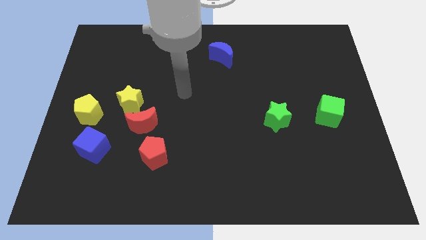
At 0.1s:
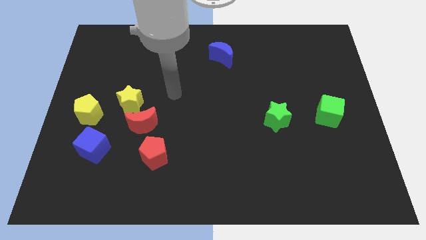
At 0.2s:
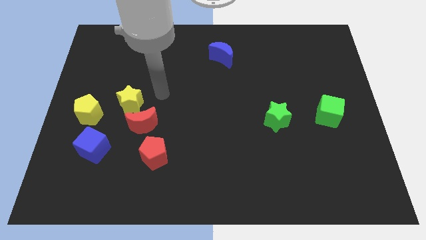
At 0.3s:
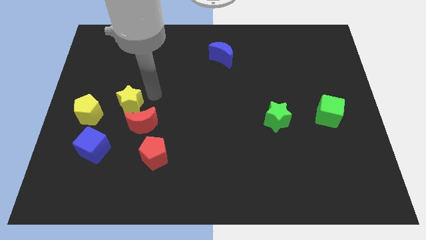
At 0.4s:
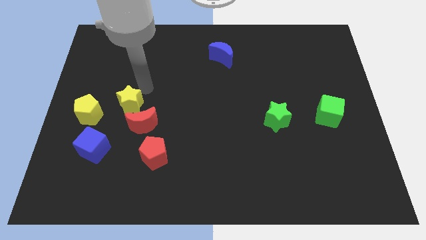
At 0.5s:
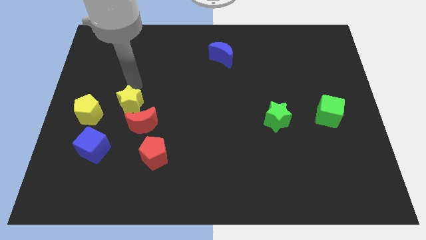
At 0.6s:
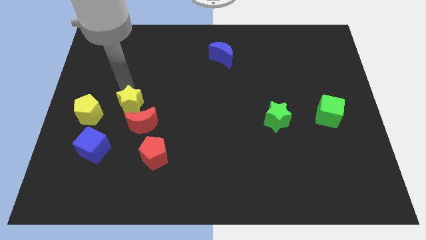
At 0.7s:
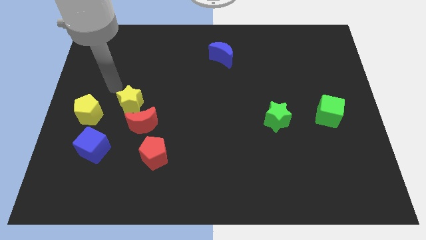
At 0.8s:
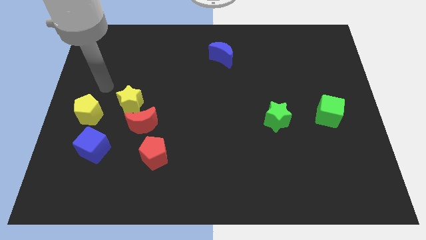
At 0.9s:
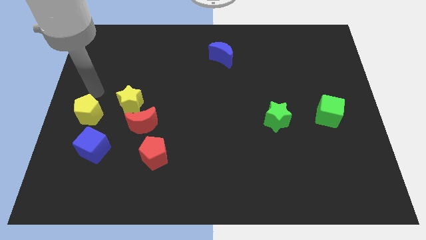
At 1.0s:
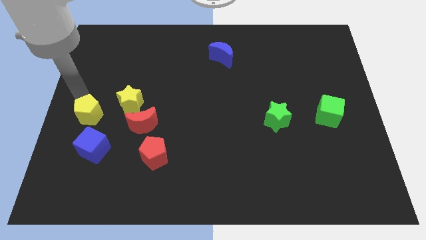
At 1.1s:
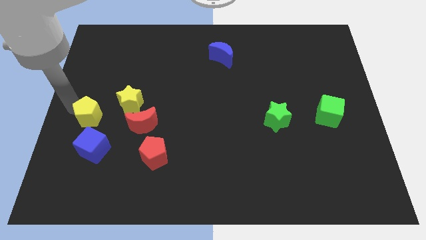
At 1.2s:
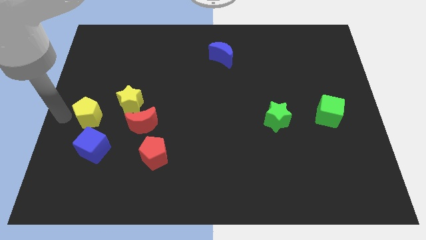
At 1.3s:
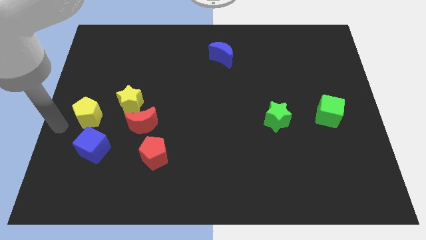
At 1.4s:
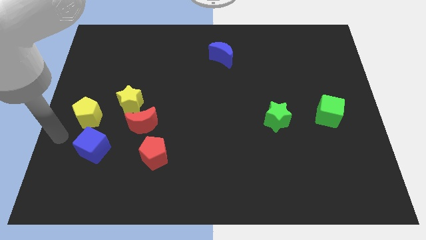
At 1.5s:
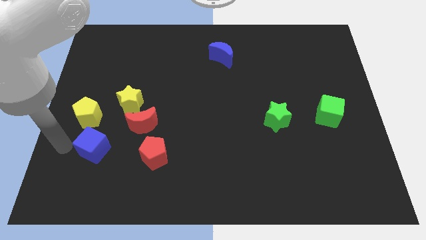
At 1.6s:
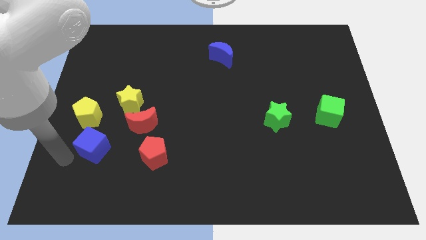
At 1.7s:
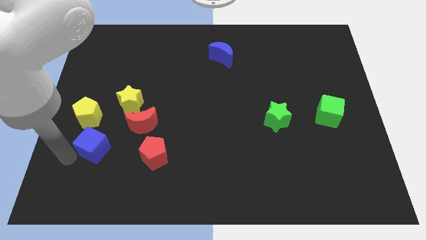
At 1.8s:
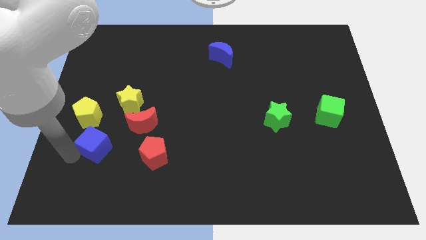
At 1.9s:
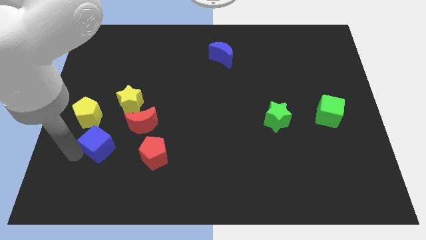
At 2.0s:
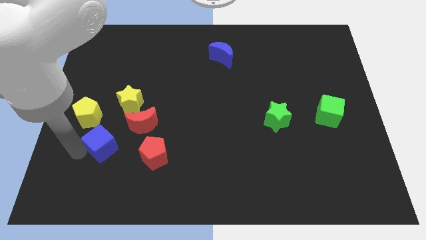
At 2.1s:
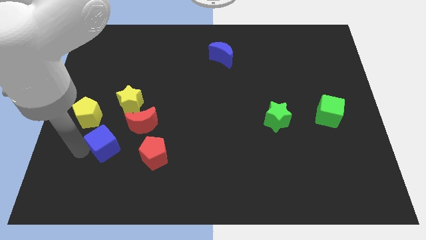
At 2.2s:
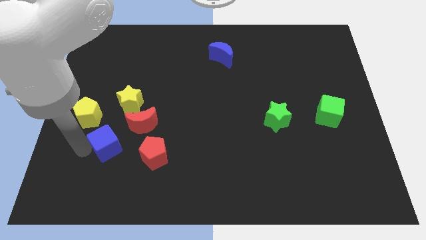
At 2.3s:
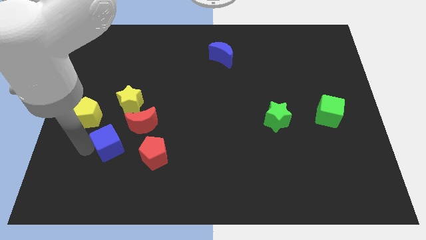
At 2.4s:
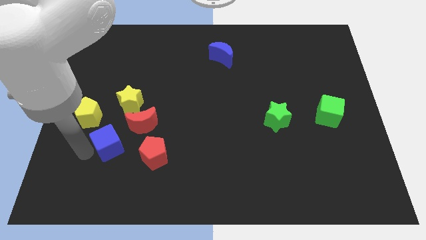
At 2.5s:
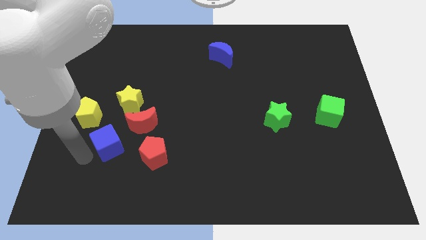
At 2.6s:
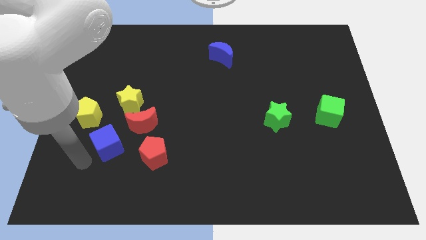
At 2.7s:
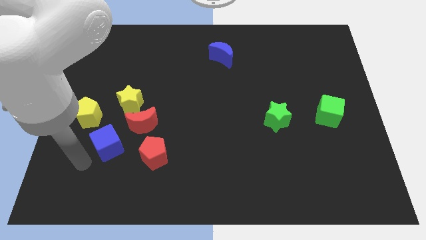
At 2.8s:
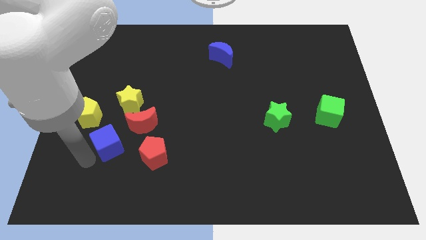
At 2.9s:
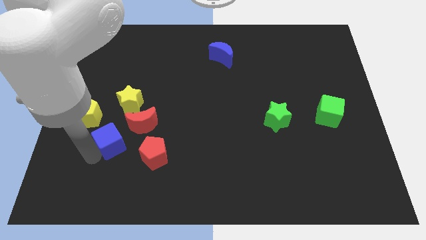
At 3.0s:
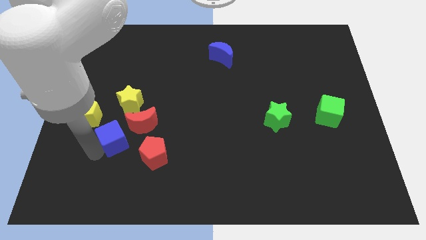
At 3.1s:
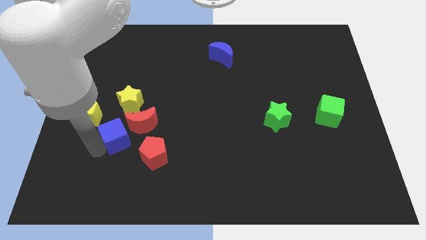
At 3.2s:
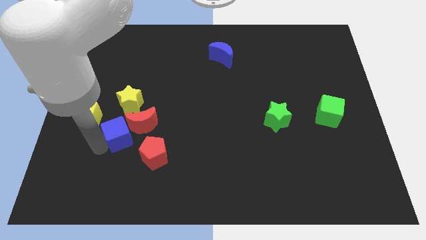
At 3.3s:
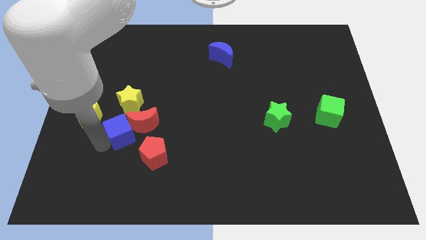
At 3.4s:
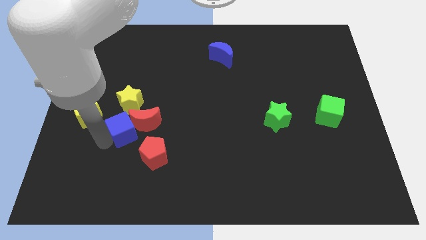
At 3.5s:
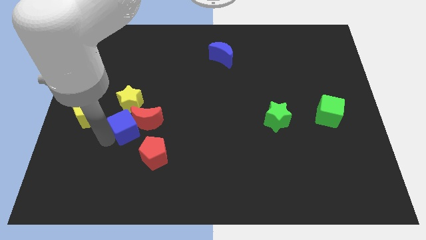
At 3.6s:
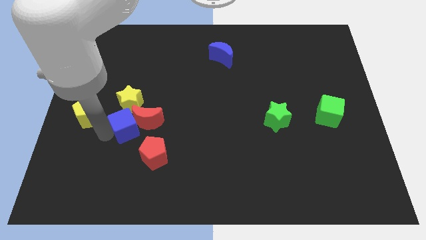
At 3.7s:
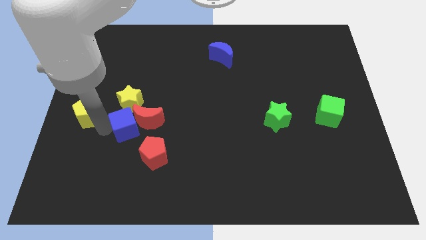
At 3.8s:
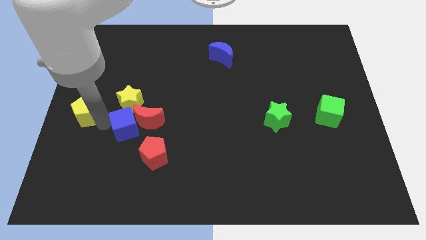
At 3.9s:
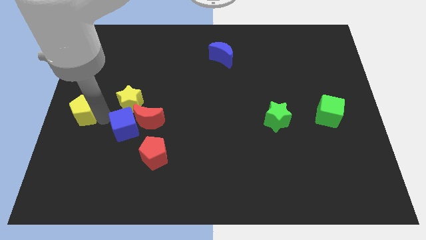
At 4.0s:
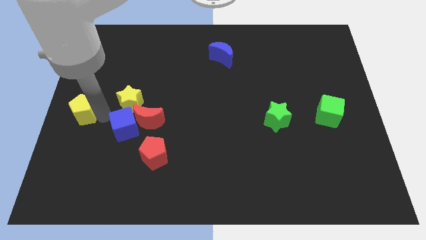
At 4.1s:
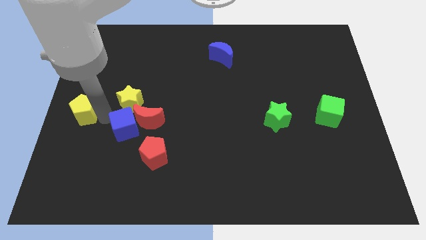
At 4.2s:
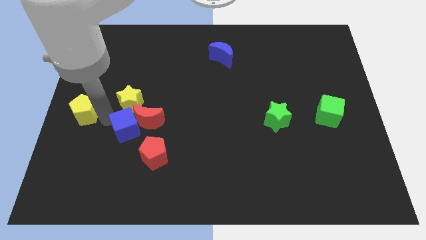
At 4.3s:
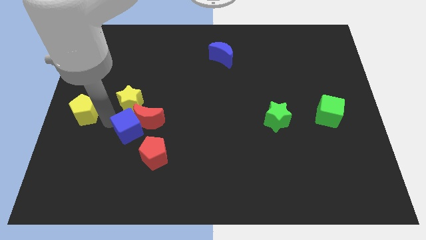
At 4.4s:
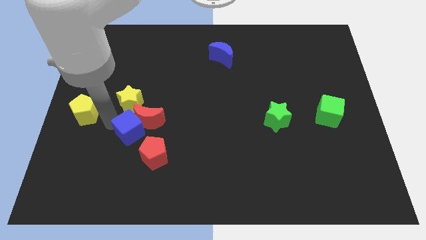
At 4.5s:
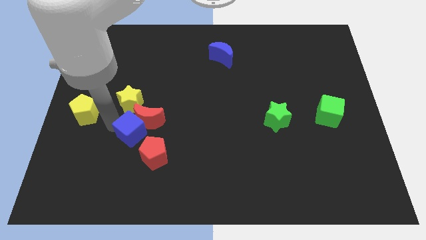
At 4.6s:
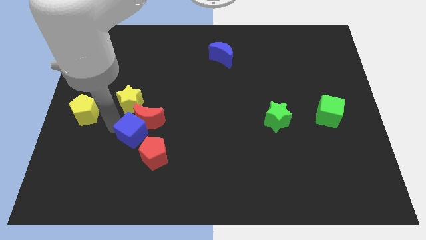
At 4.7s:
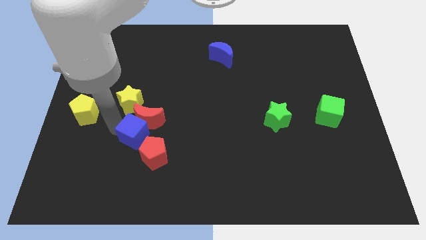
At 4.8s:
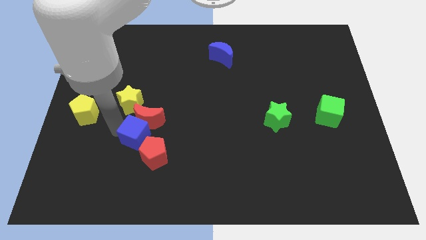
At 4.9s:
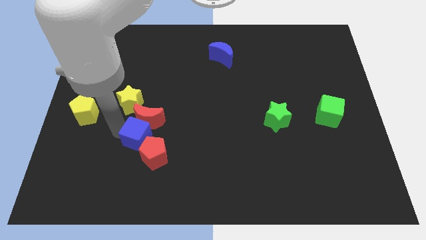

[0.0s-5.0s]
slide the blue cube to the bottom right of the red moon

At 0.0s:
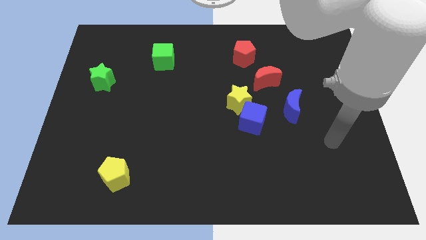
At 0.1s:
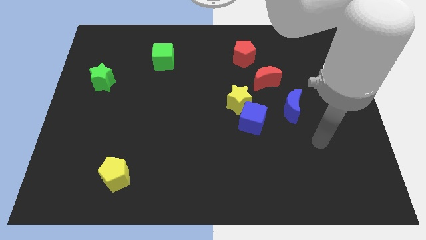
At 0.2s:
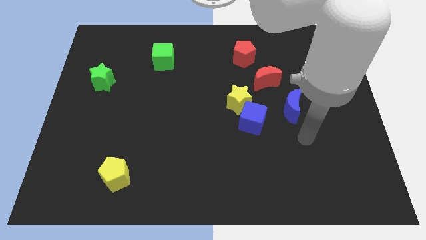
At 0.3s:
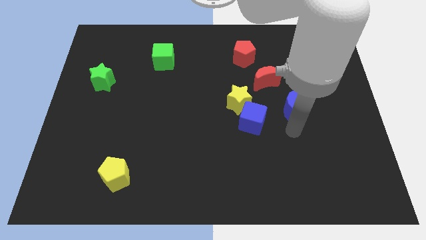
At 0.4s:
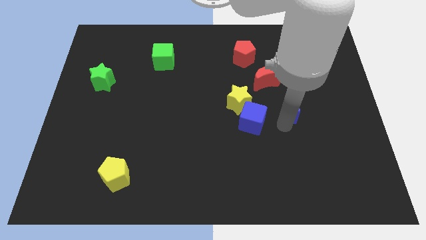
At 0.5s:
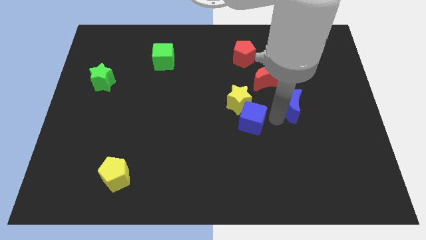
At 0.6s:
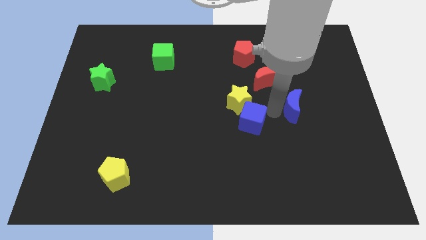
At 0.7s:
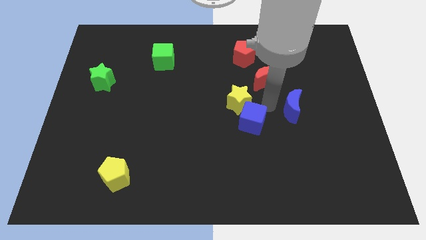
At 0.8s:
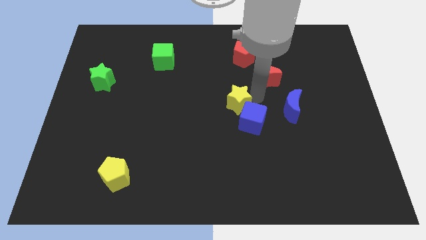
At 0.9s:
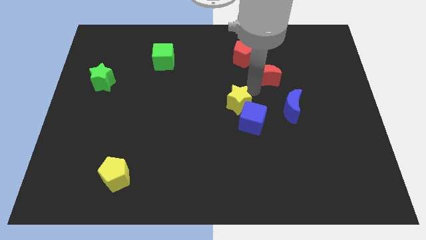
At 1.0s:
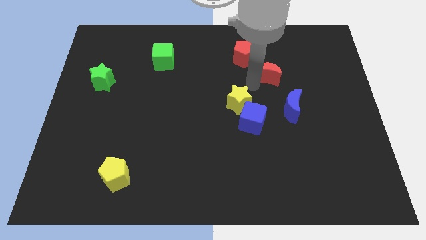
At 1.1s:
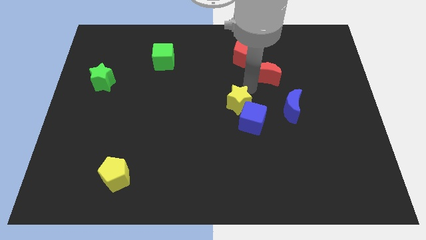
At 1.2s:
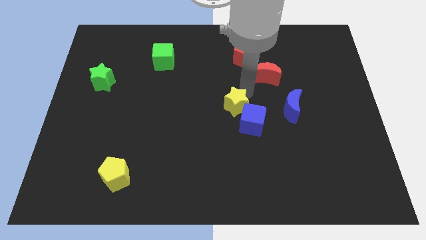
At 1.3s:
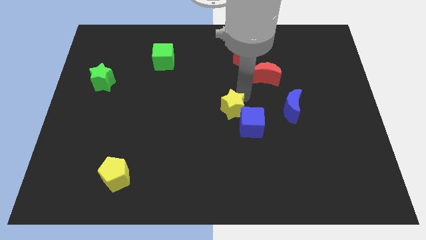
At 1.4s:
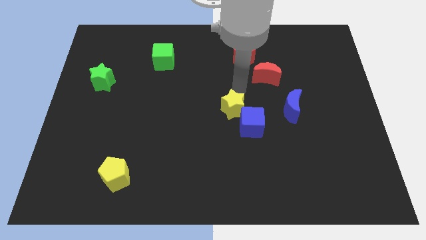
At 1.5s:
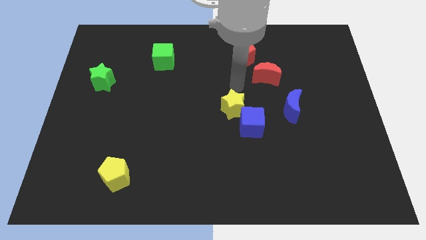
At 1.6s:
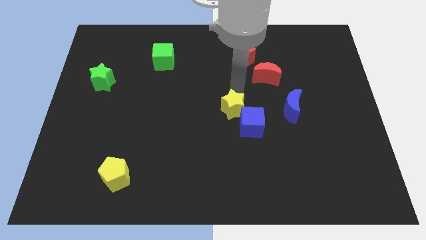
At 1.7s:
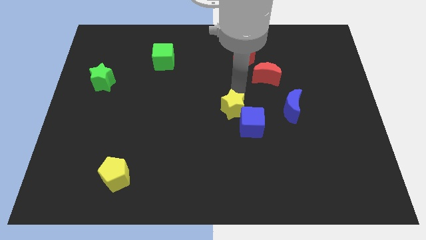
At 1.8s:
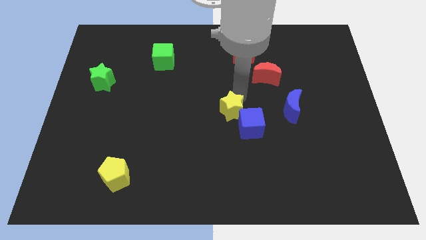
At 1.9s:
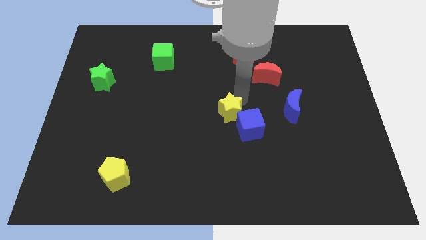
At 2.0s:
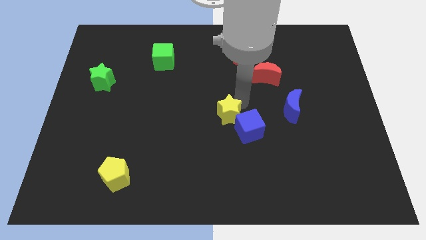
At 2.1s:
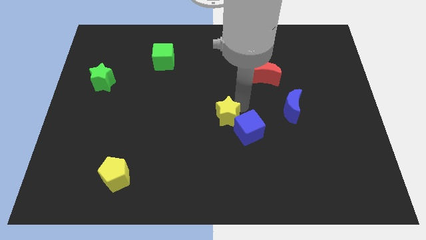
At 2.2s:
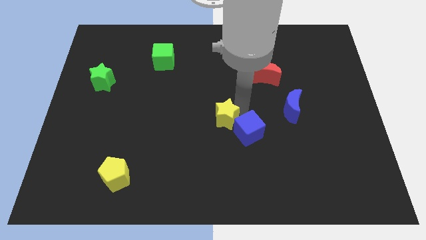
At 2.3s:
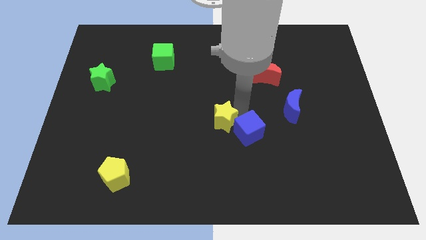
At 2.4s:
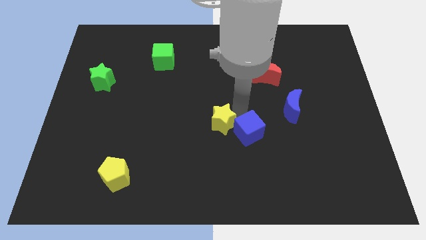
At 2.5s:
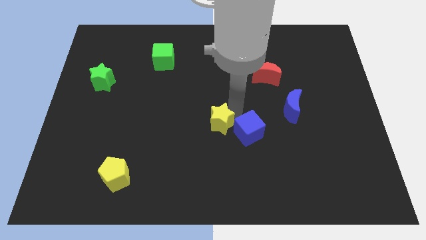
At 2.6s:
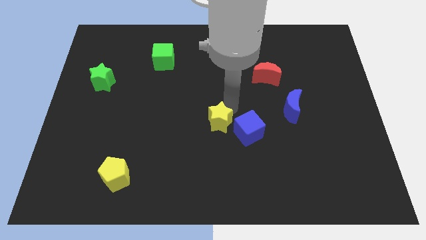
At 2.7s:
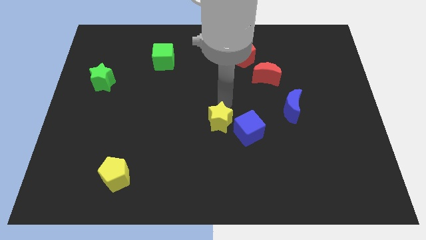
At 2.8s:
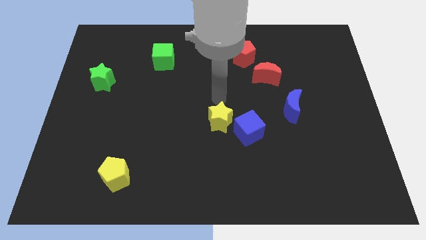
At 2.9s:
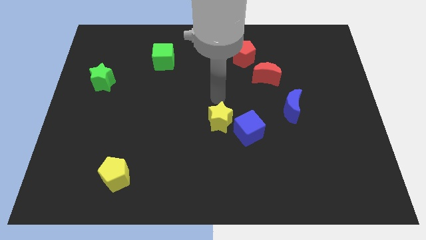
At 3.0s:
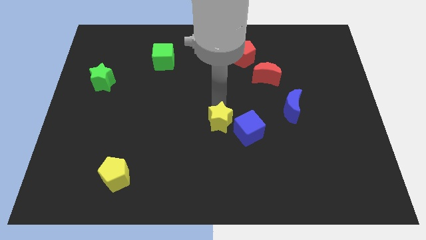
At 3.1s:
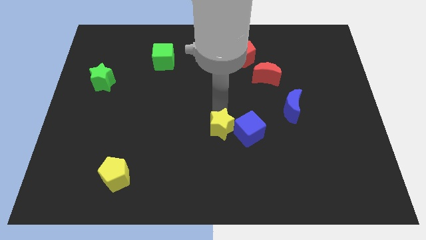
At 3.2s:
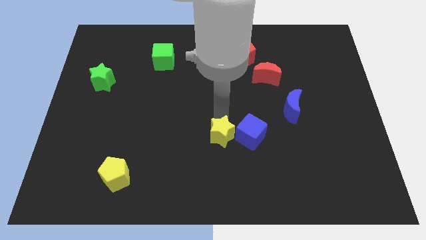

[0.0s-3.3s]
push the yellow star diagonally down and to the left of the blue cube
